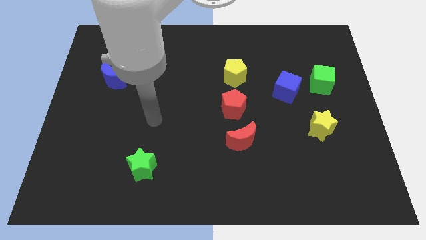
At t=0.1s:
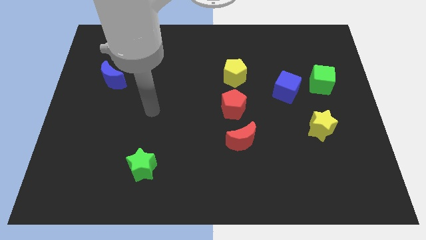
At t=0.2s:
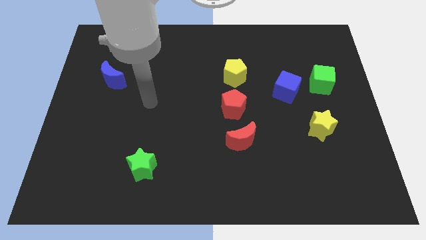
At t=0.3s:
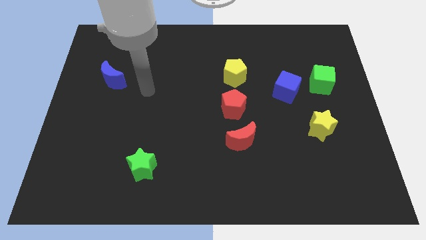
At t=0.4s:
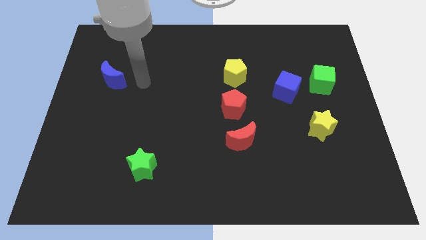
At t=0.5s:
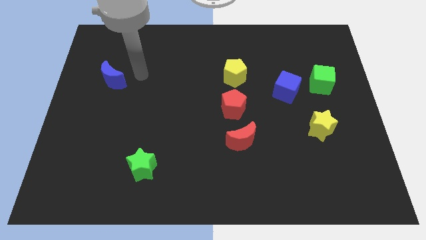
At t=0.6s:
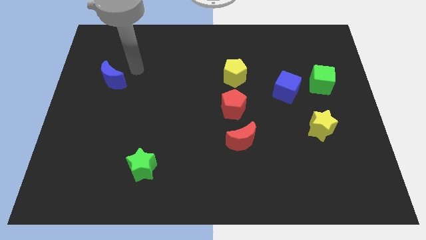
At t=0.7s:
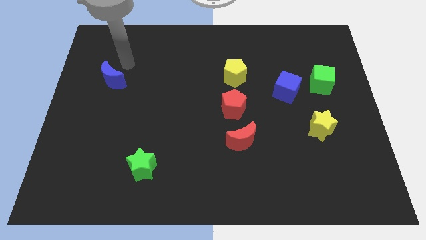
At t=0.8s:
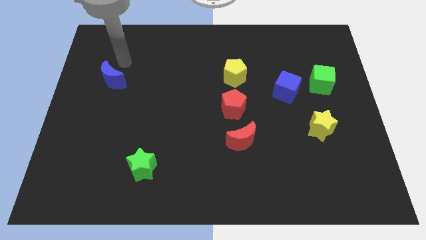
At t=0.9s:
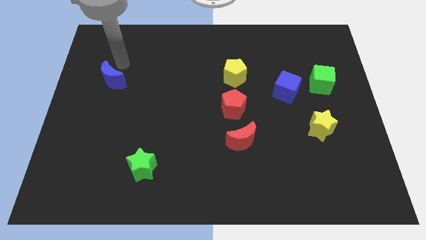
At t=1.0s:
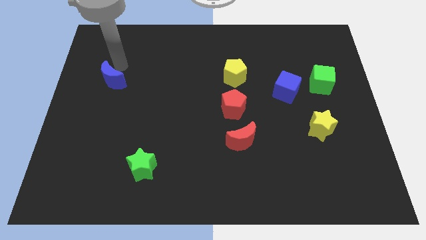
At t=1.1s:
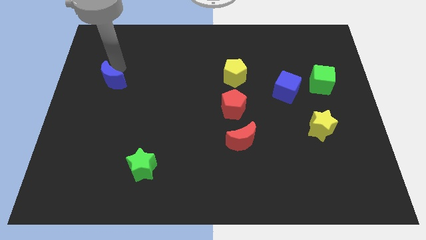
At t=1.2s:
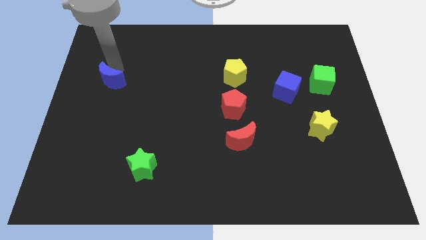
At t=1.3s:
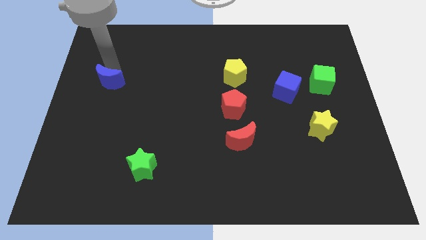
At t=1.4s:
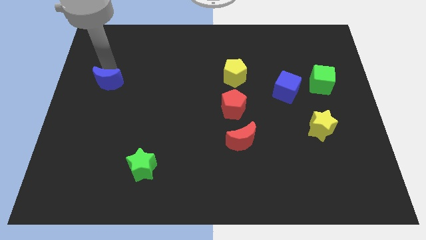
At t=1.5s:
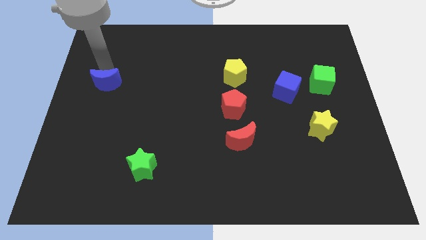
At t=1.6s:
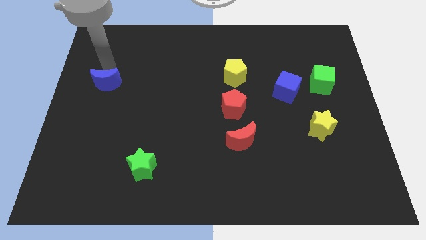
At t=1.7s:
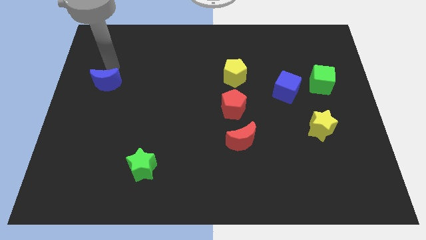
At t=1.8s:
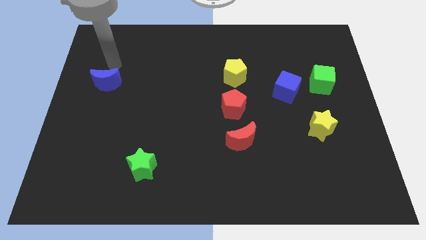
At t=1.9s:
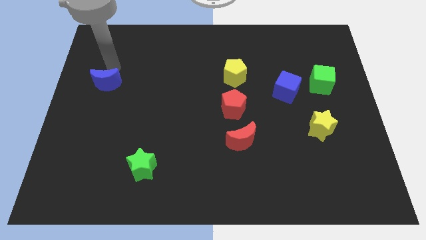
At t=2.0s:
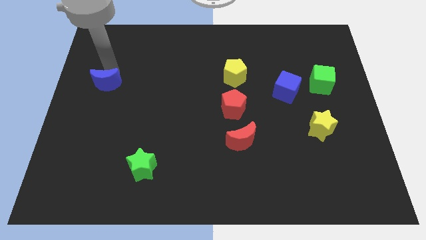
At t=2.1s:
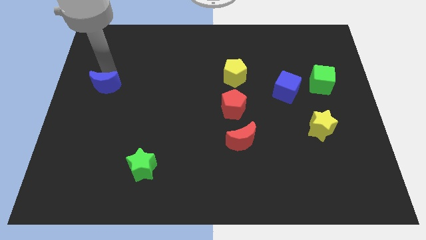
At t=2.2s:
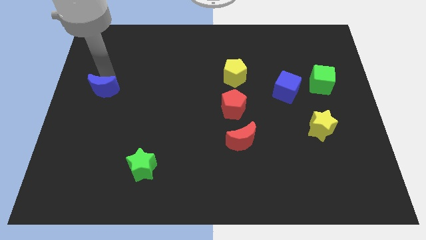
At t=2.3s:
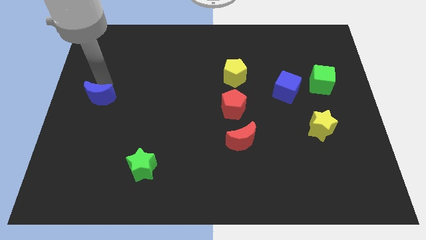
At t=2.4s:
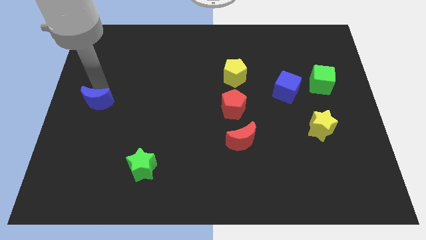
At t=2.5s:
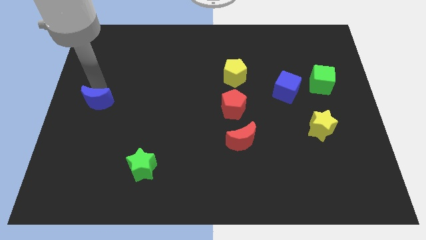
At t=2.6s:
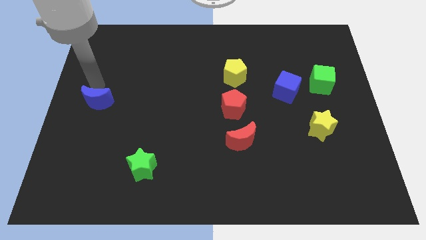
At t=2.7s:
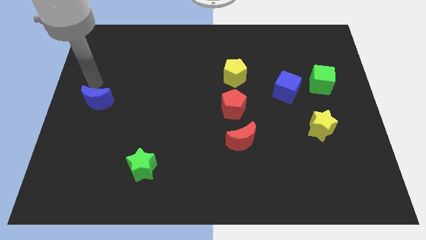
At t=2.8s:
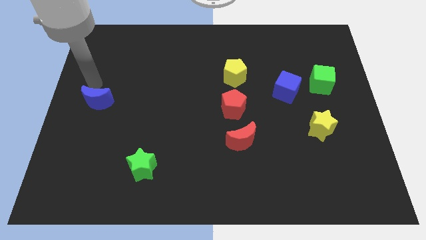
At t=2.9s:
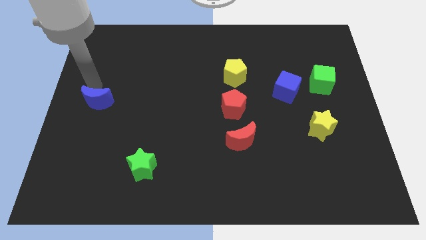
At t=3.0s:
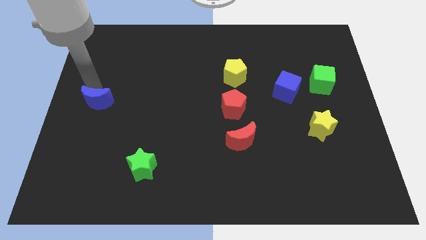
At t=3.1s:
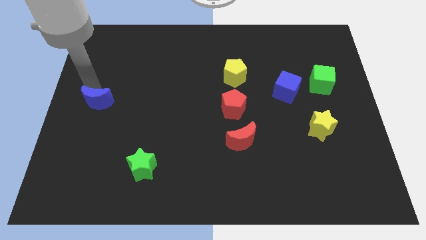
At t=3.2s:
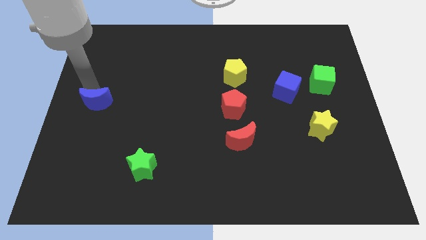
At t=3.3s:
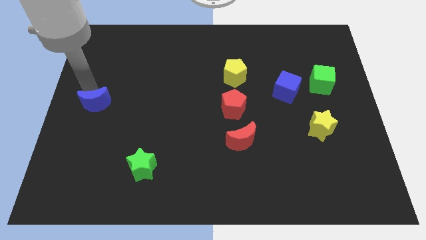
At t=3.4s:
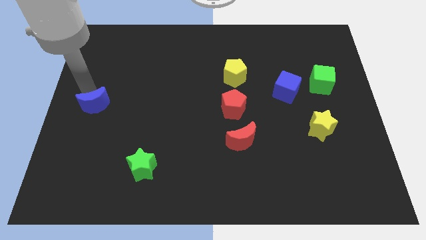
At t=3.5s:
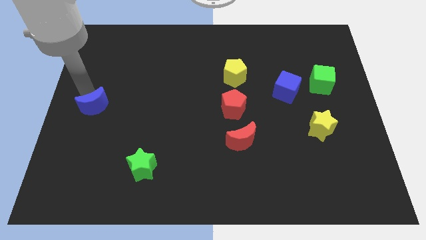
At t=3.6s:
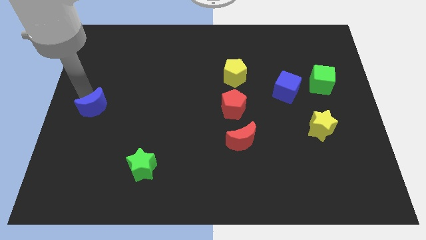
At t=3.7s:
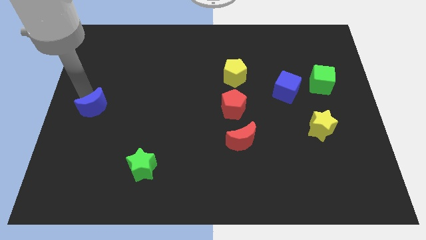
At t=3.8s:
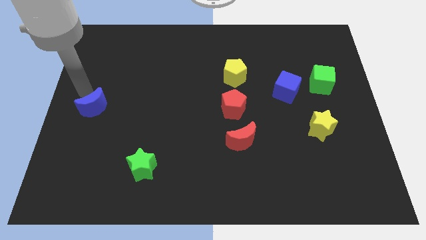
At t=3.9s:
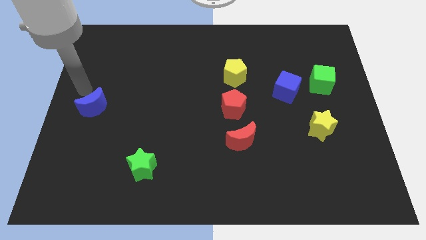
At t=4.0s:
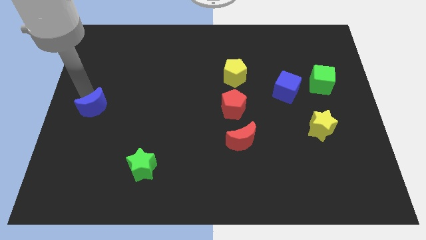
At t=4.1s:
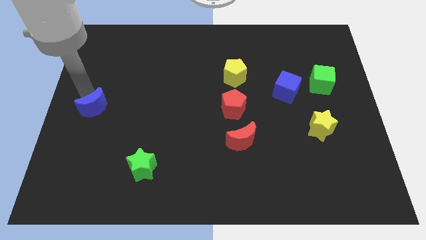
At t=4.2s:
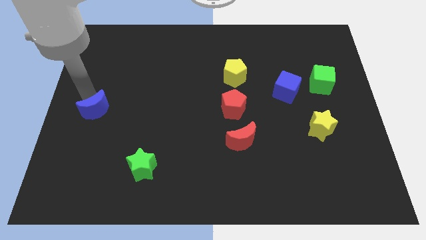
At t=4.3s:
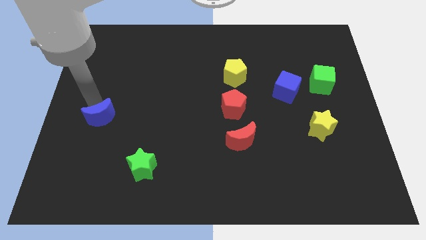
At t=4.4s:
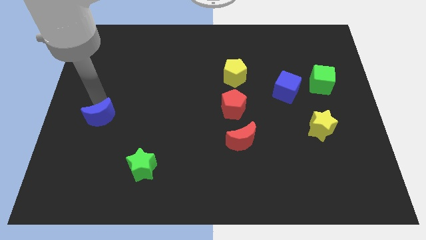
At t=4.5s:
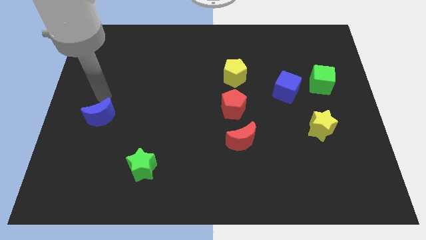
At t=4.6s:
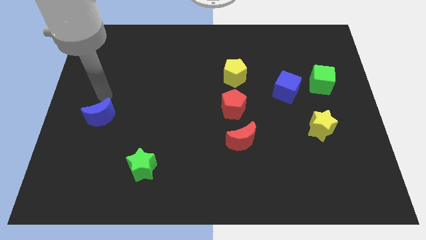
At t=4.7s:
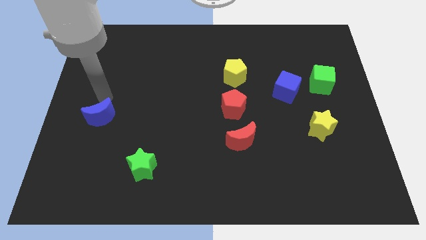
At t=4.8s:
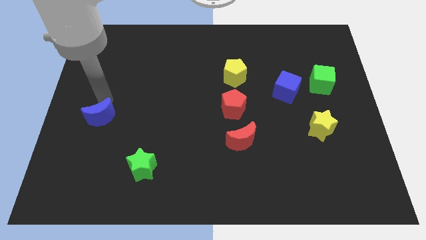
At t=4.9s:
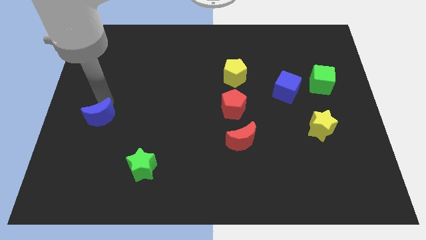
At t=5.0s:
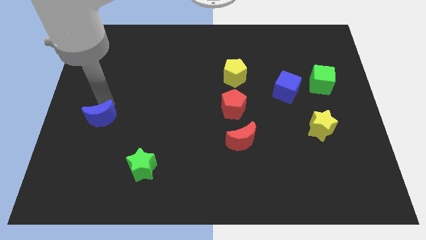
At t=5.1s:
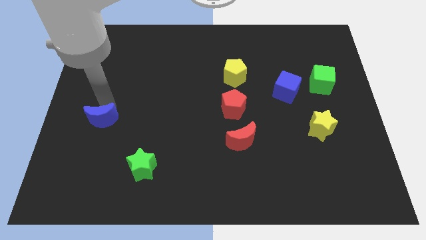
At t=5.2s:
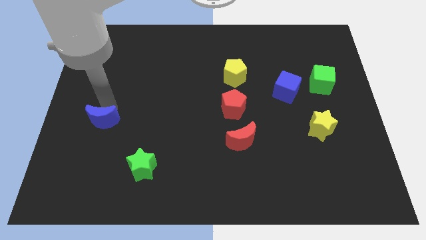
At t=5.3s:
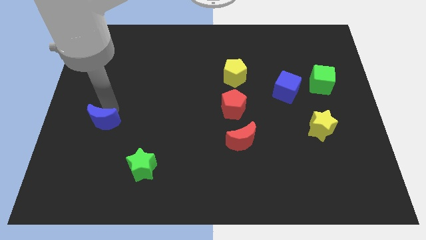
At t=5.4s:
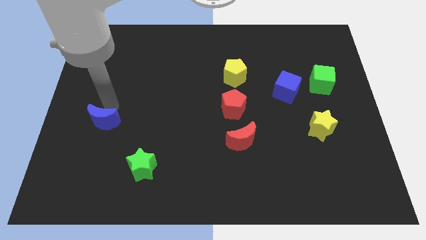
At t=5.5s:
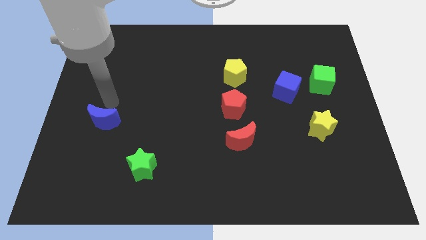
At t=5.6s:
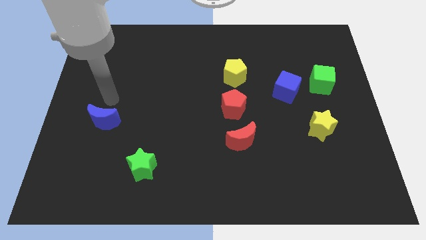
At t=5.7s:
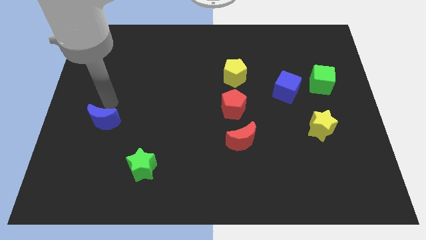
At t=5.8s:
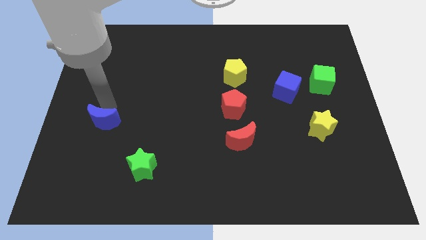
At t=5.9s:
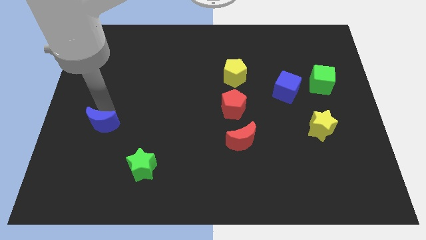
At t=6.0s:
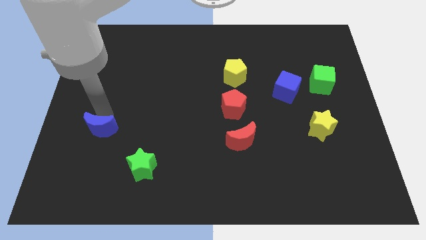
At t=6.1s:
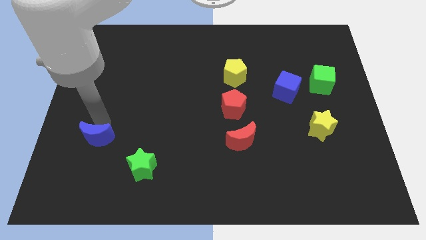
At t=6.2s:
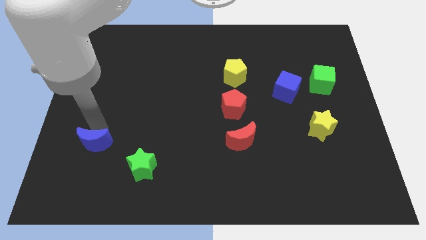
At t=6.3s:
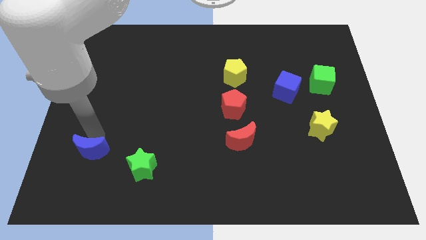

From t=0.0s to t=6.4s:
move the blue moon left of the green star
